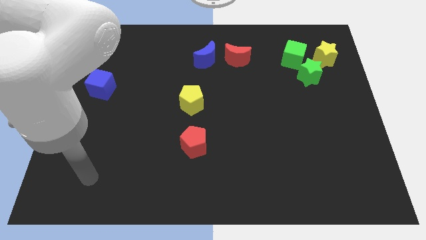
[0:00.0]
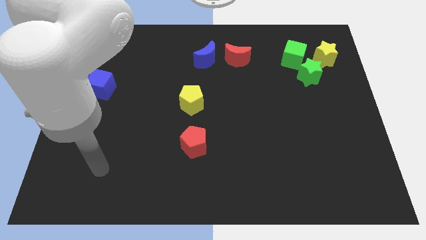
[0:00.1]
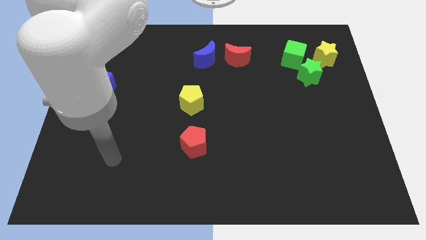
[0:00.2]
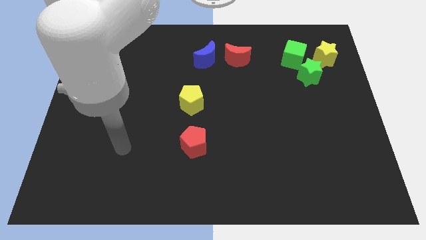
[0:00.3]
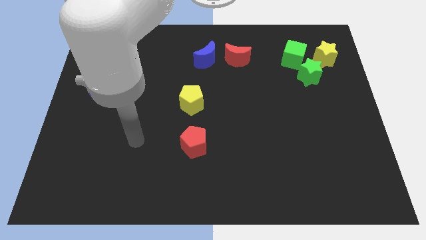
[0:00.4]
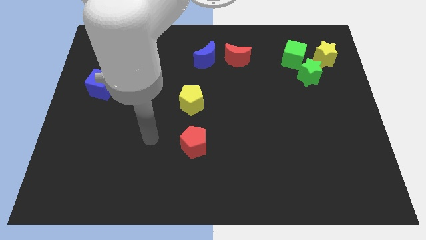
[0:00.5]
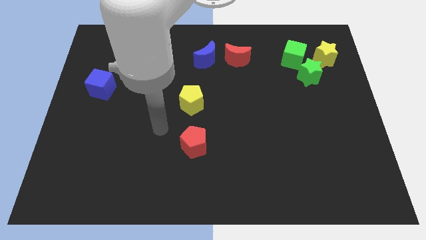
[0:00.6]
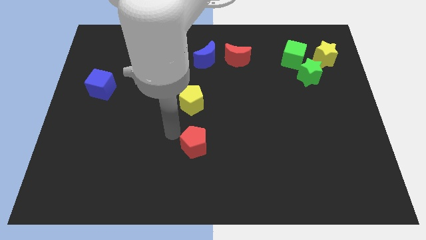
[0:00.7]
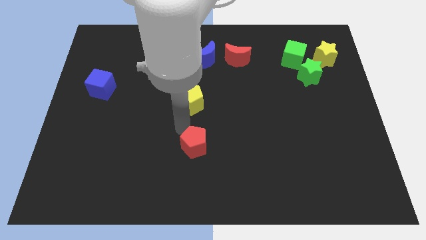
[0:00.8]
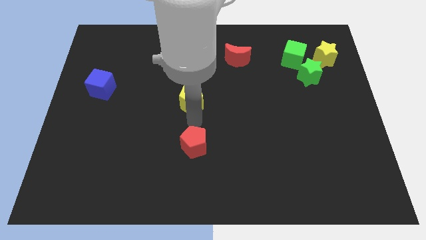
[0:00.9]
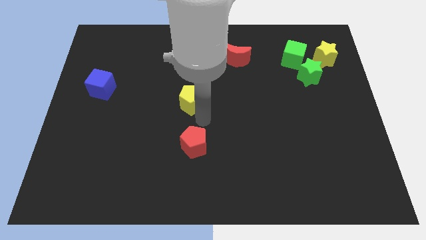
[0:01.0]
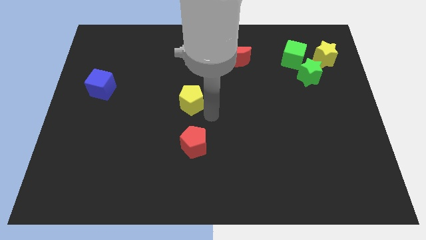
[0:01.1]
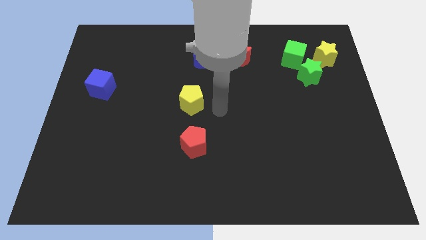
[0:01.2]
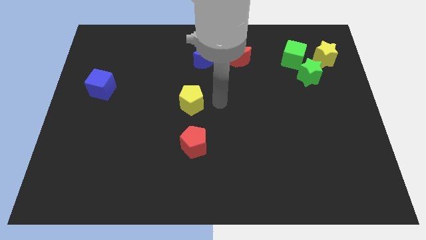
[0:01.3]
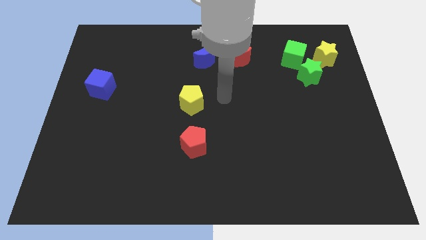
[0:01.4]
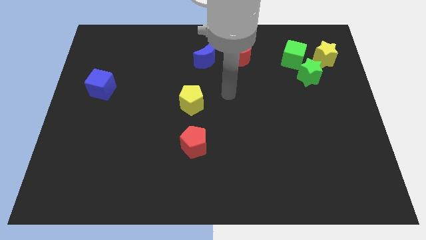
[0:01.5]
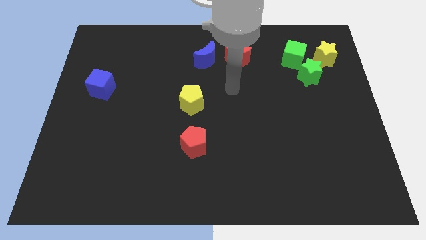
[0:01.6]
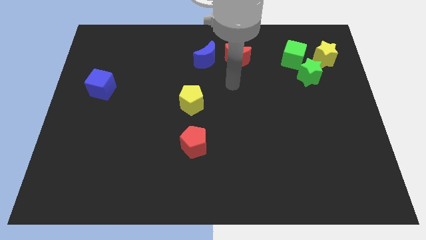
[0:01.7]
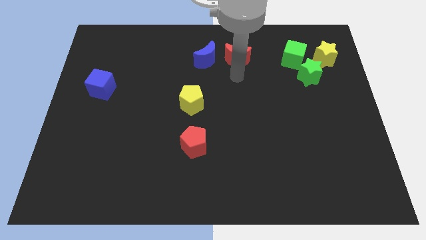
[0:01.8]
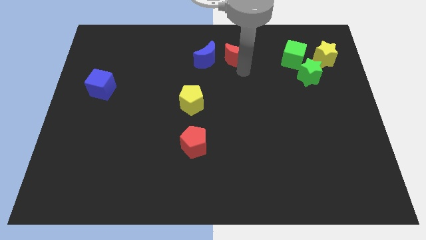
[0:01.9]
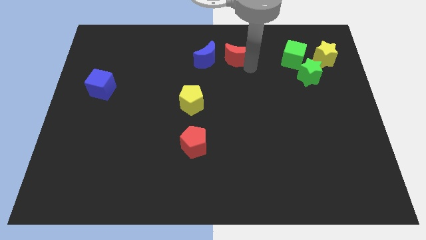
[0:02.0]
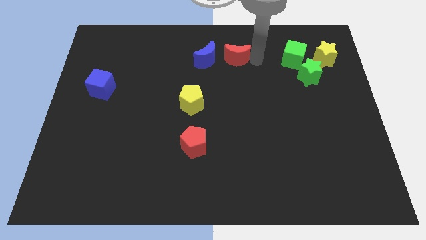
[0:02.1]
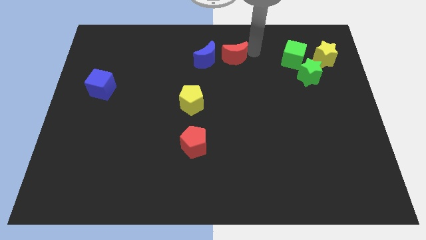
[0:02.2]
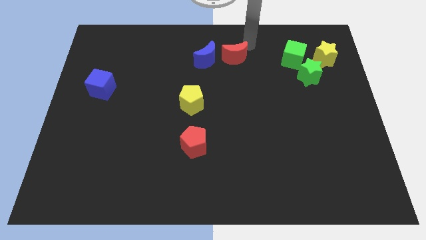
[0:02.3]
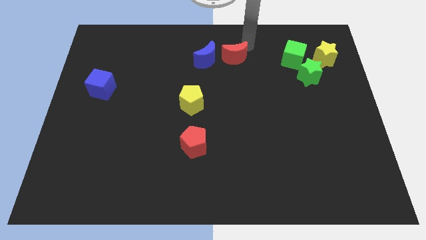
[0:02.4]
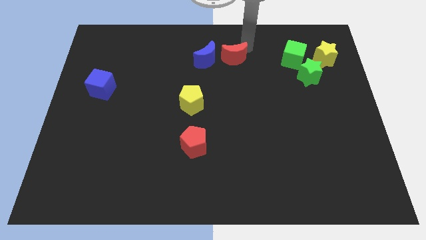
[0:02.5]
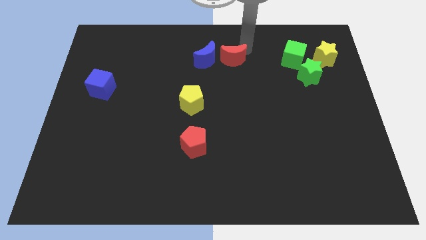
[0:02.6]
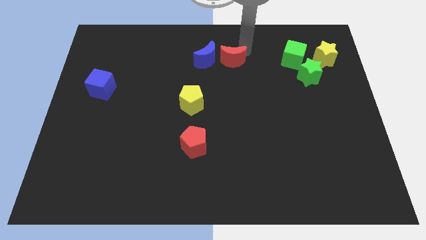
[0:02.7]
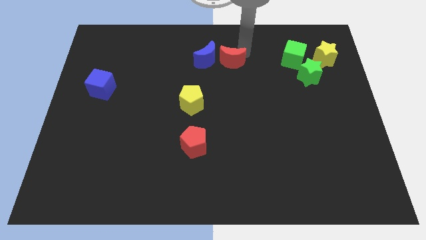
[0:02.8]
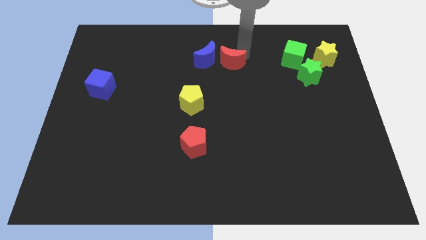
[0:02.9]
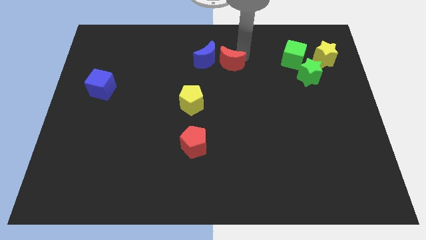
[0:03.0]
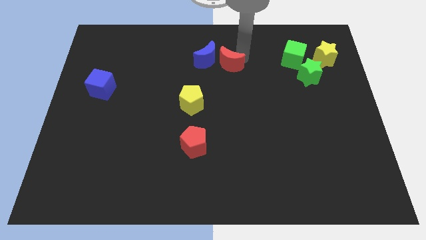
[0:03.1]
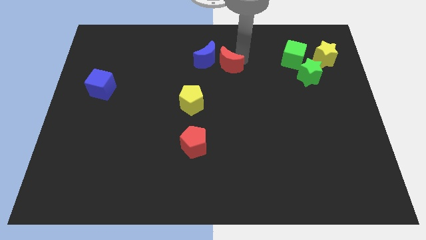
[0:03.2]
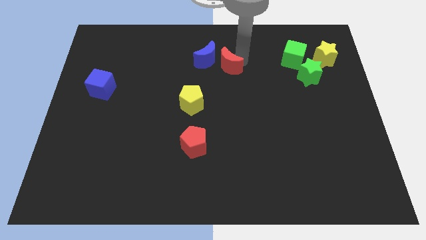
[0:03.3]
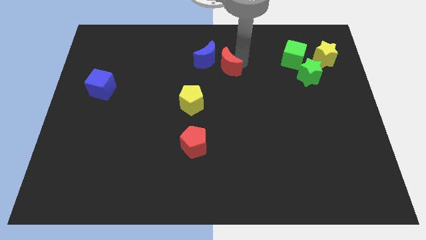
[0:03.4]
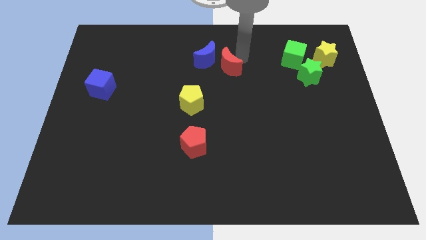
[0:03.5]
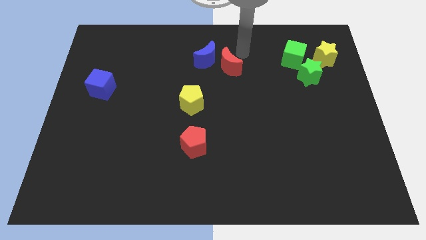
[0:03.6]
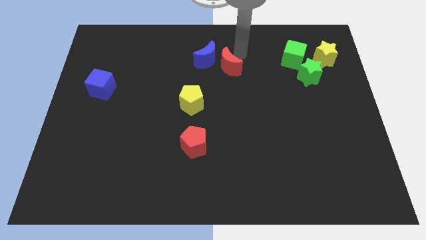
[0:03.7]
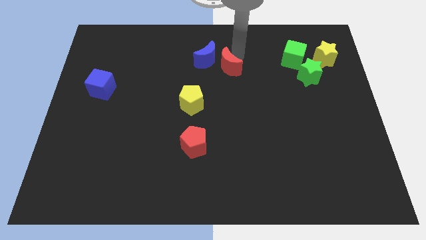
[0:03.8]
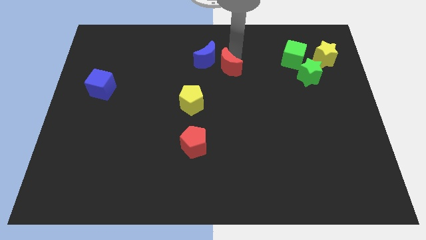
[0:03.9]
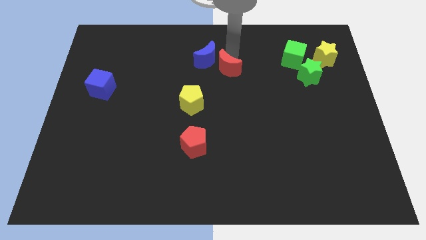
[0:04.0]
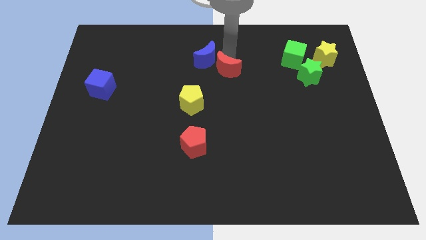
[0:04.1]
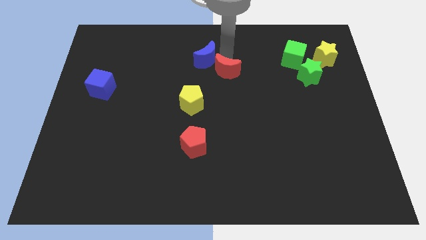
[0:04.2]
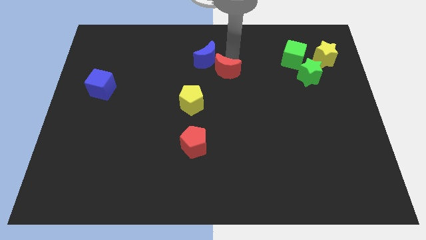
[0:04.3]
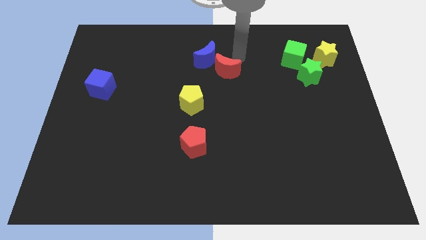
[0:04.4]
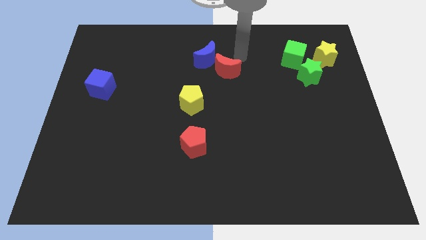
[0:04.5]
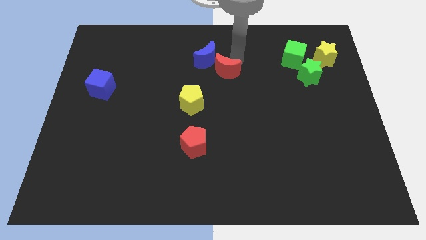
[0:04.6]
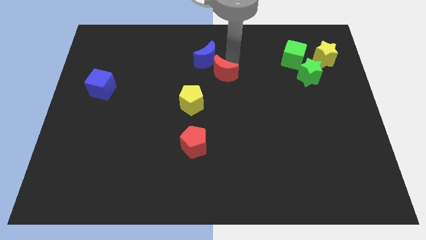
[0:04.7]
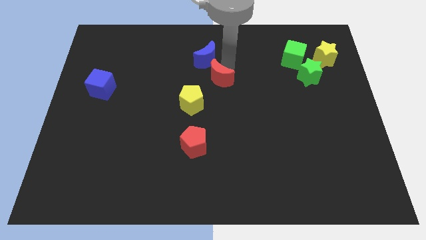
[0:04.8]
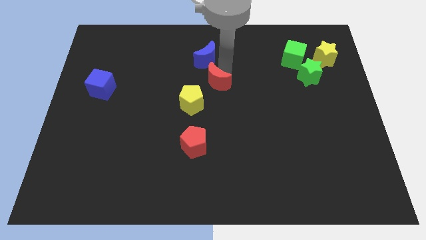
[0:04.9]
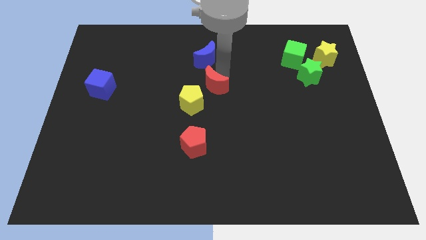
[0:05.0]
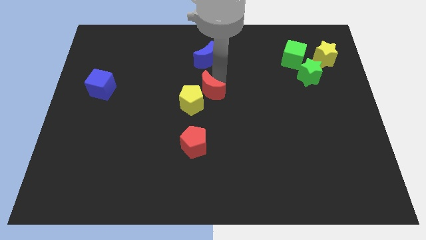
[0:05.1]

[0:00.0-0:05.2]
push the red moon to the yellow pentagon

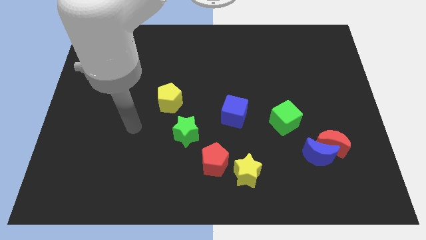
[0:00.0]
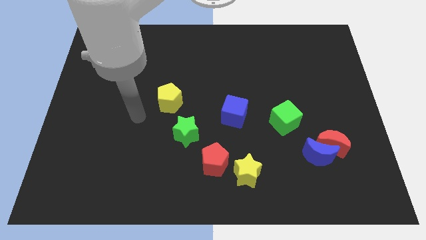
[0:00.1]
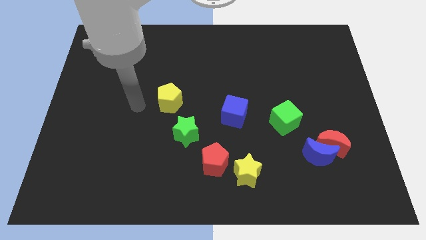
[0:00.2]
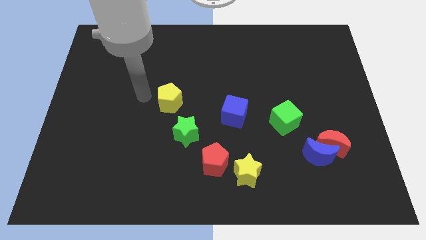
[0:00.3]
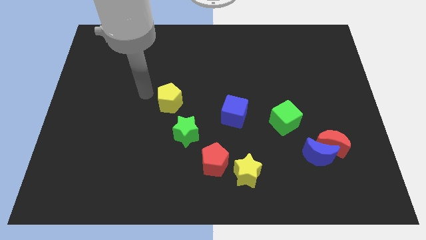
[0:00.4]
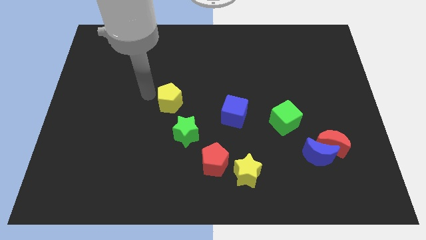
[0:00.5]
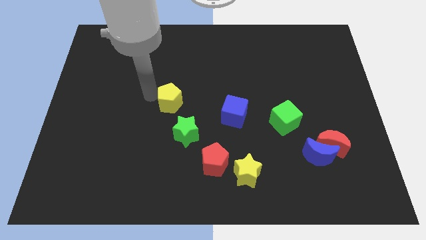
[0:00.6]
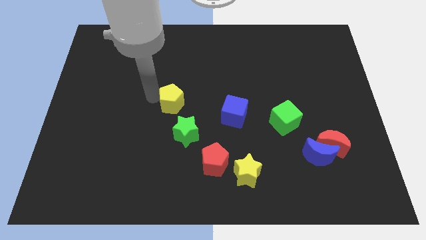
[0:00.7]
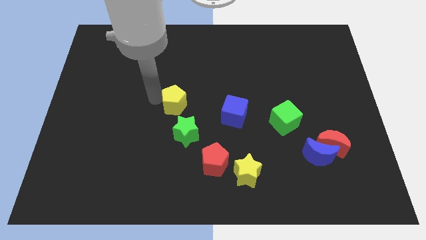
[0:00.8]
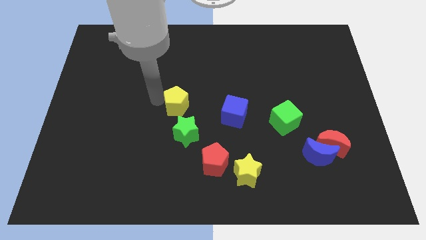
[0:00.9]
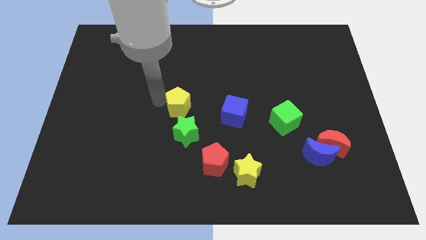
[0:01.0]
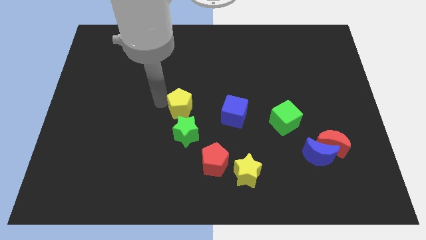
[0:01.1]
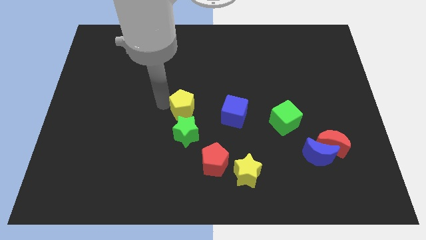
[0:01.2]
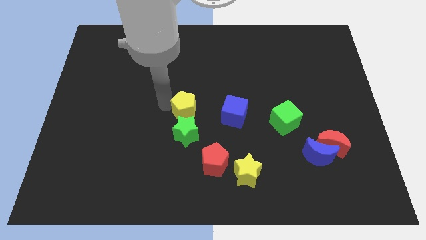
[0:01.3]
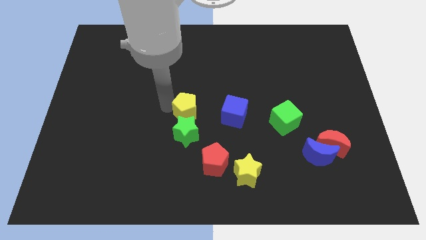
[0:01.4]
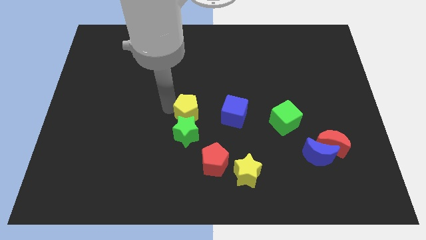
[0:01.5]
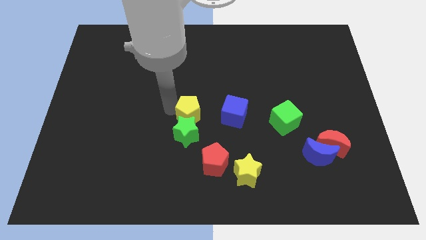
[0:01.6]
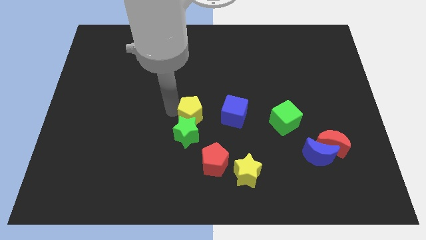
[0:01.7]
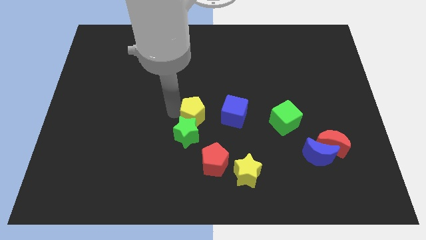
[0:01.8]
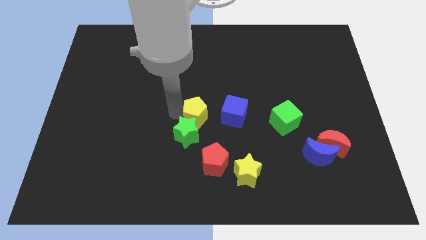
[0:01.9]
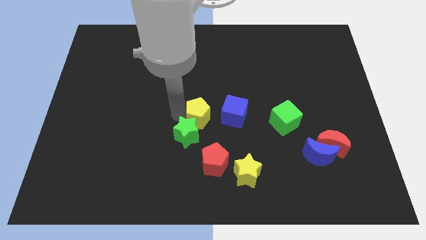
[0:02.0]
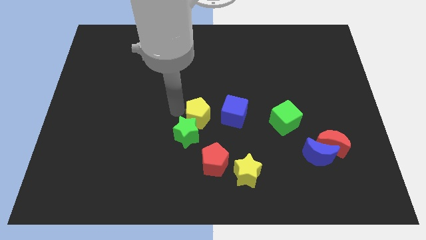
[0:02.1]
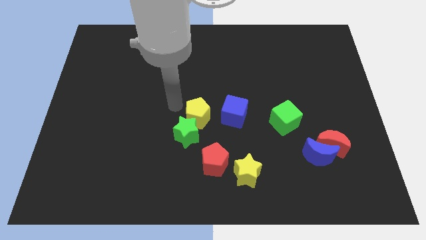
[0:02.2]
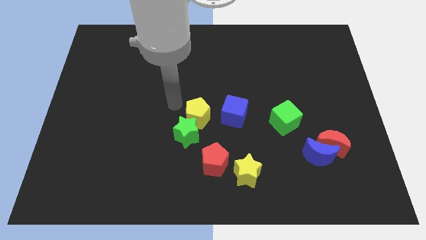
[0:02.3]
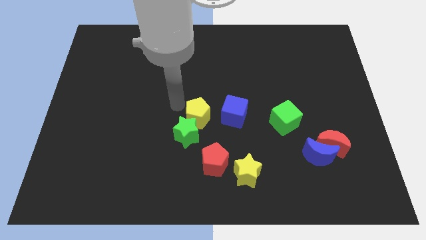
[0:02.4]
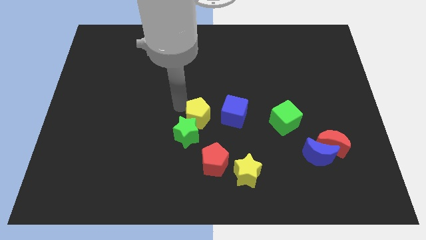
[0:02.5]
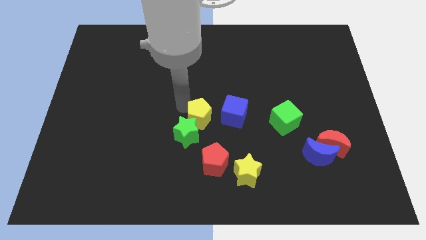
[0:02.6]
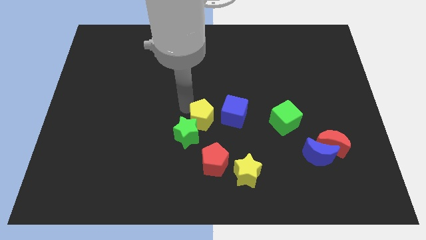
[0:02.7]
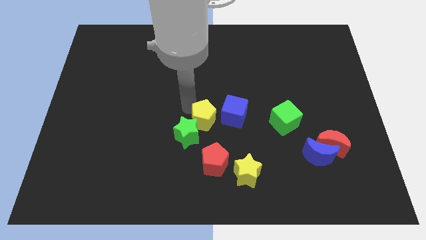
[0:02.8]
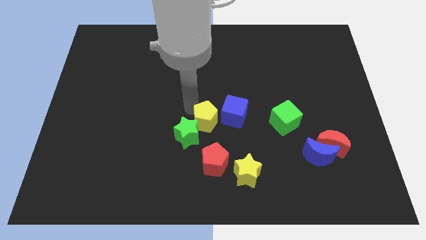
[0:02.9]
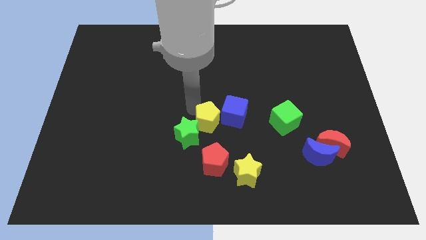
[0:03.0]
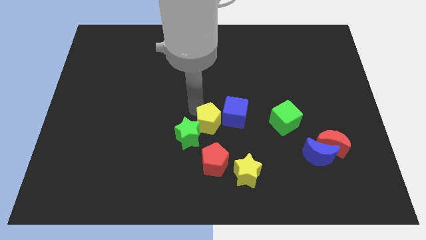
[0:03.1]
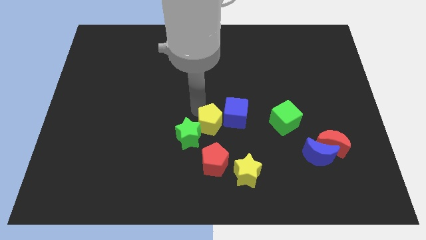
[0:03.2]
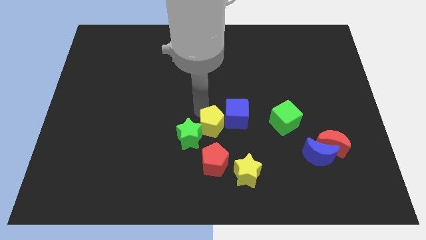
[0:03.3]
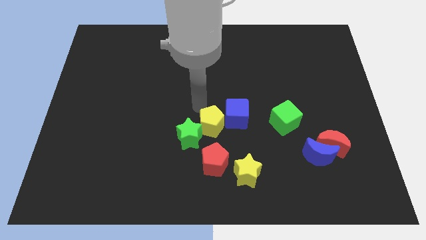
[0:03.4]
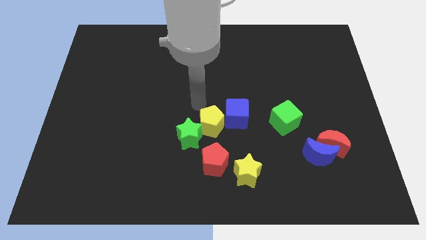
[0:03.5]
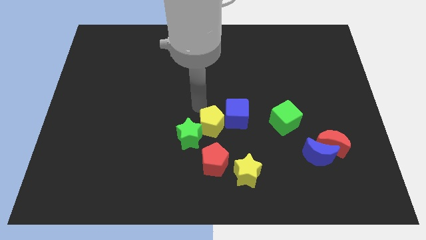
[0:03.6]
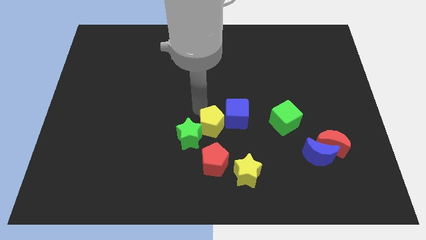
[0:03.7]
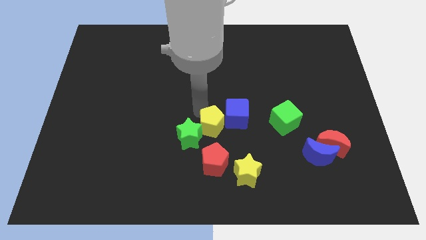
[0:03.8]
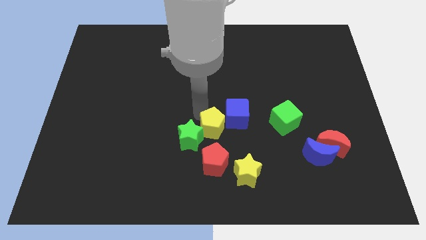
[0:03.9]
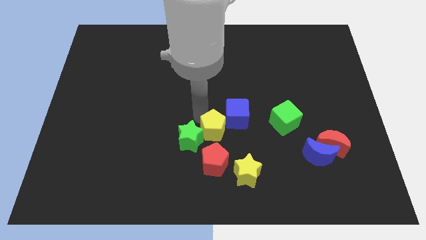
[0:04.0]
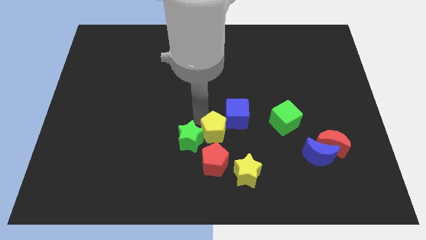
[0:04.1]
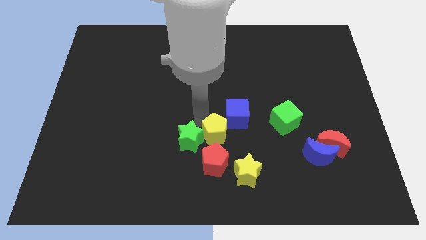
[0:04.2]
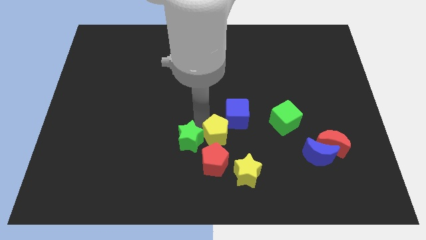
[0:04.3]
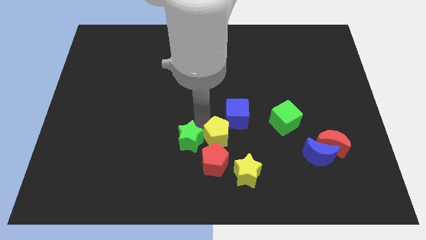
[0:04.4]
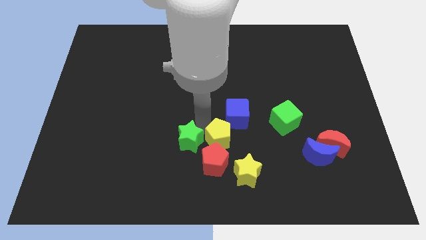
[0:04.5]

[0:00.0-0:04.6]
slide the yellow pentagon next to the red pentagon
